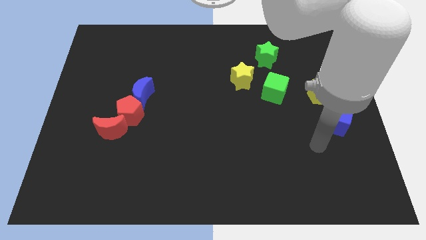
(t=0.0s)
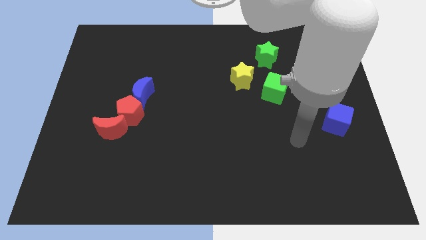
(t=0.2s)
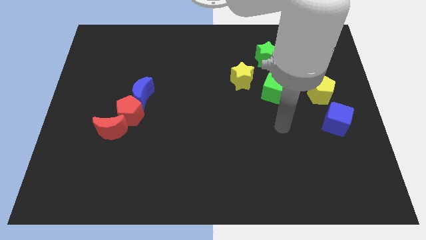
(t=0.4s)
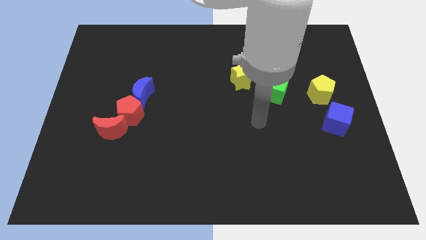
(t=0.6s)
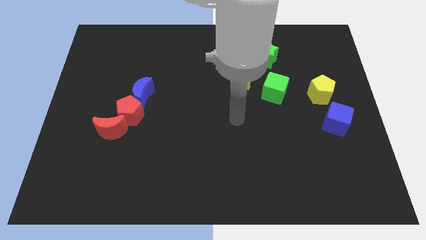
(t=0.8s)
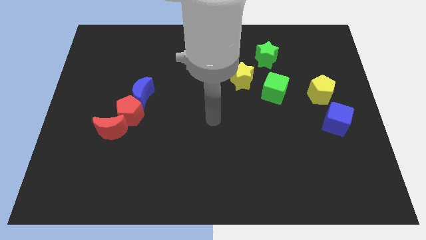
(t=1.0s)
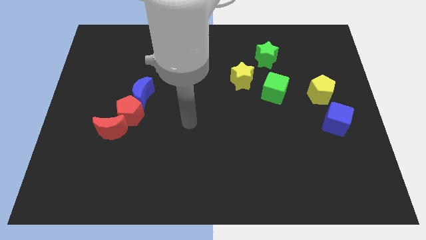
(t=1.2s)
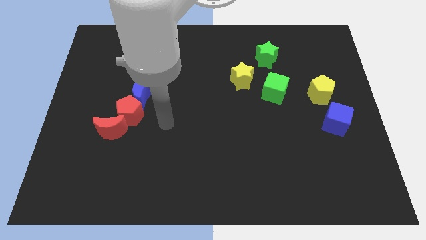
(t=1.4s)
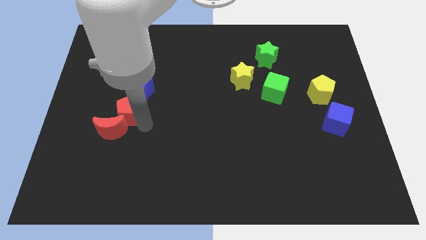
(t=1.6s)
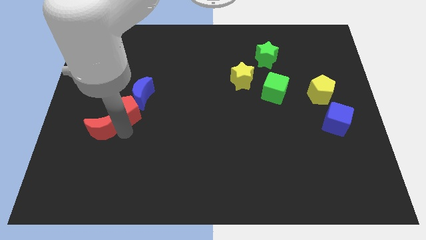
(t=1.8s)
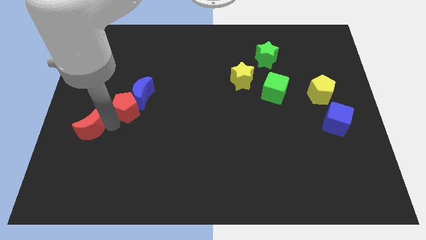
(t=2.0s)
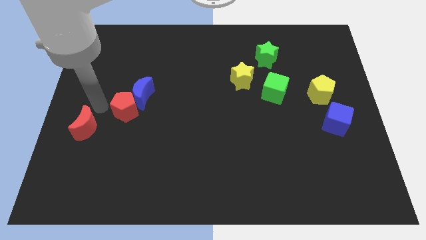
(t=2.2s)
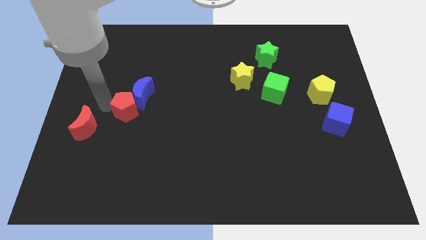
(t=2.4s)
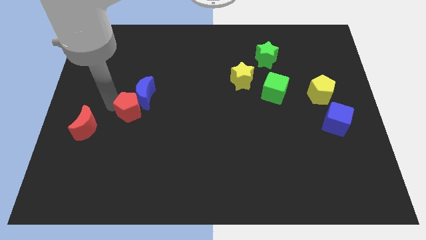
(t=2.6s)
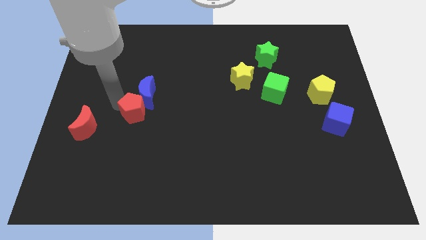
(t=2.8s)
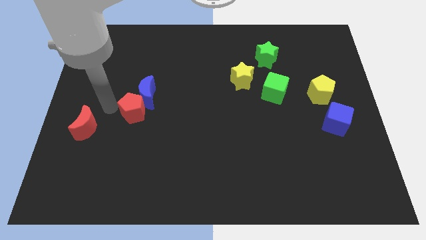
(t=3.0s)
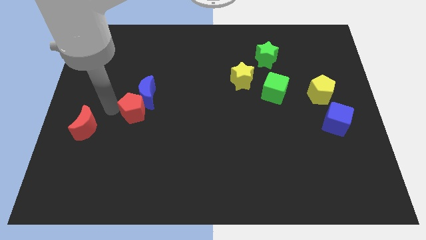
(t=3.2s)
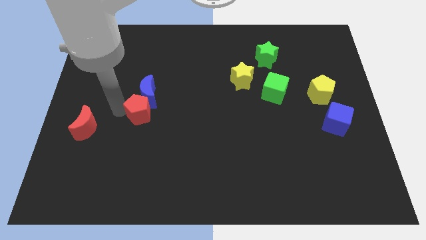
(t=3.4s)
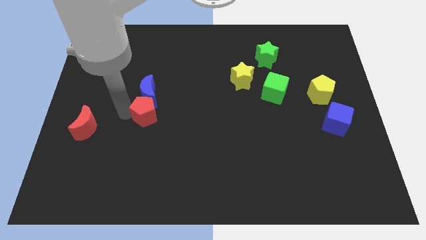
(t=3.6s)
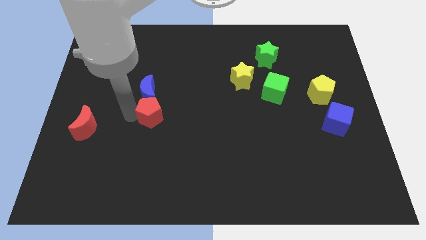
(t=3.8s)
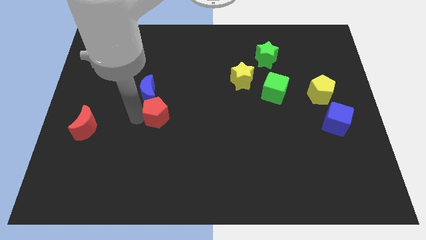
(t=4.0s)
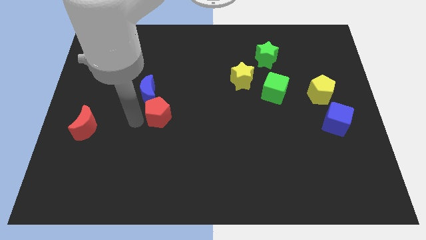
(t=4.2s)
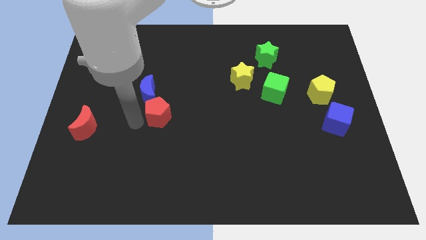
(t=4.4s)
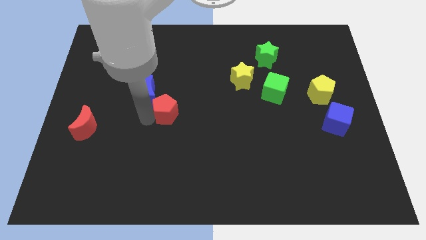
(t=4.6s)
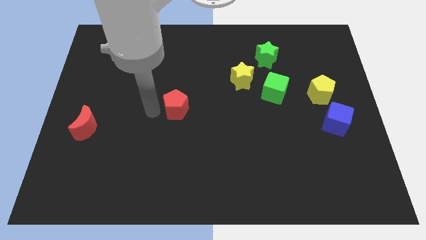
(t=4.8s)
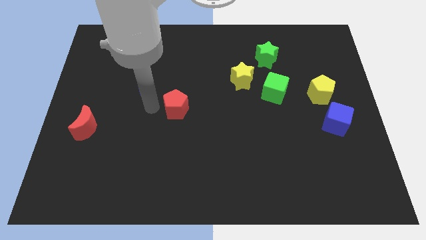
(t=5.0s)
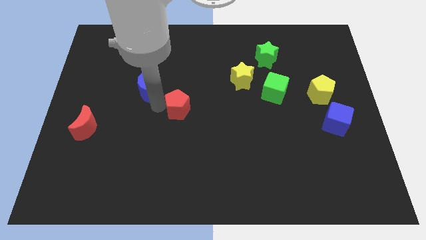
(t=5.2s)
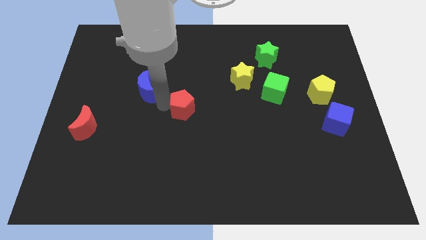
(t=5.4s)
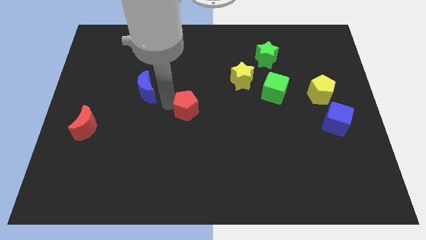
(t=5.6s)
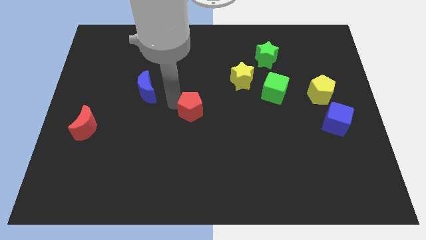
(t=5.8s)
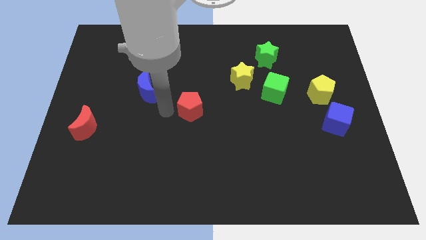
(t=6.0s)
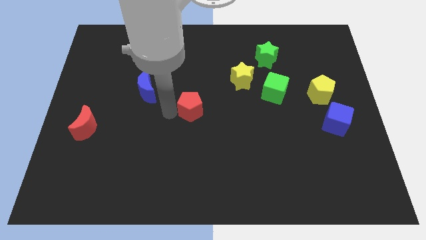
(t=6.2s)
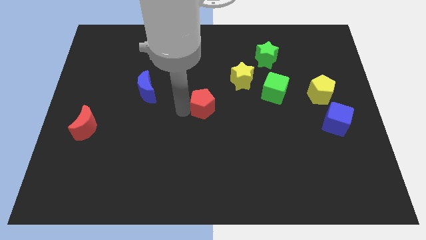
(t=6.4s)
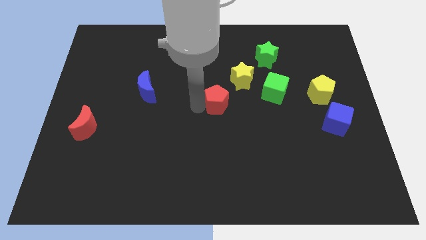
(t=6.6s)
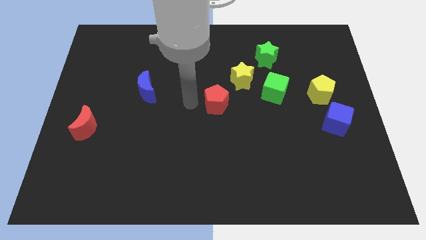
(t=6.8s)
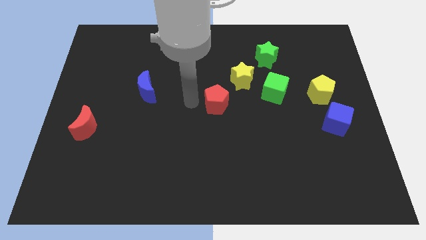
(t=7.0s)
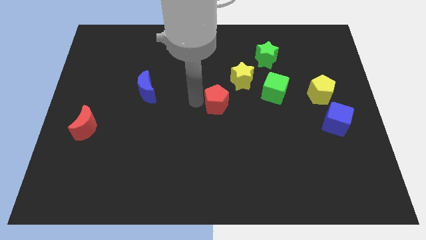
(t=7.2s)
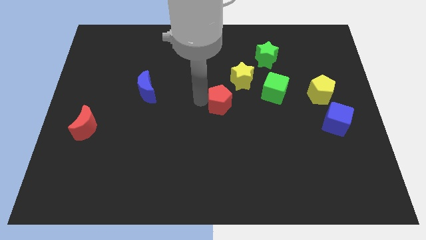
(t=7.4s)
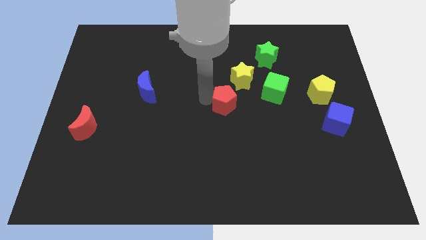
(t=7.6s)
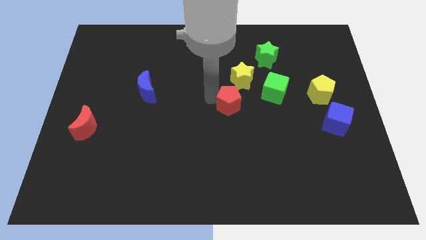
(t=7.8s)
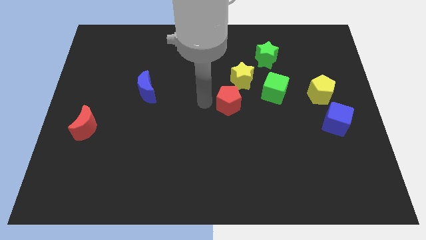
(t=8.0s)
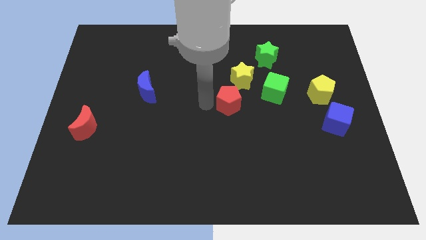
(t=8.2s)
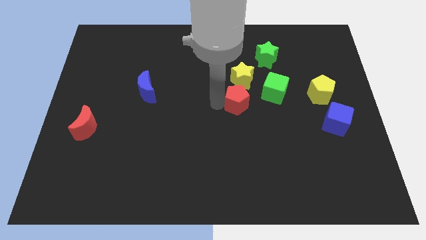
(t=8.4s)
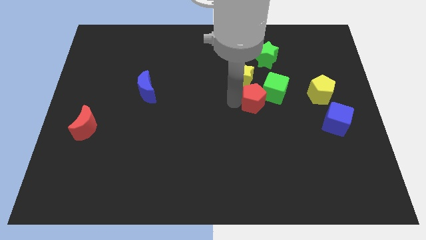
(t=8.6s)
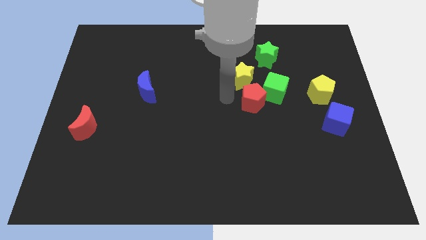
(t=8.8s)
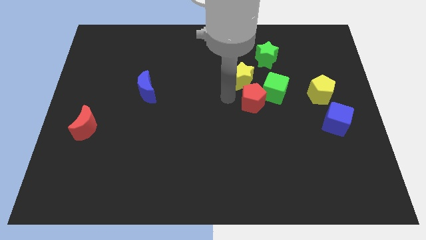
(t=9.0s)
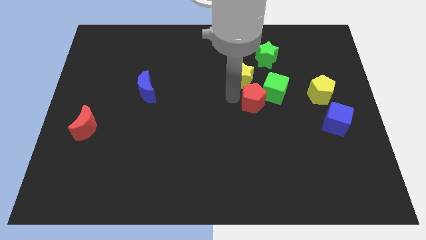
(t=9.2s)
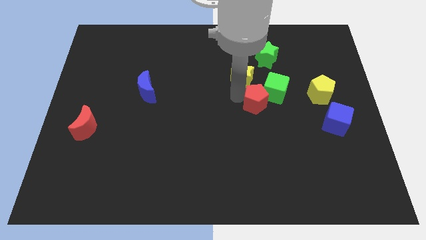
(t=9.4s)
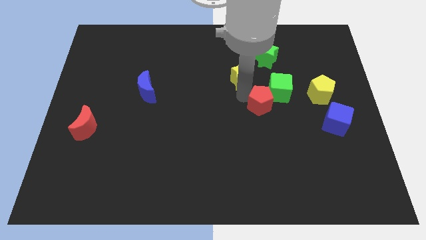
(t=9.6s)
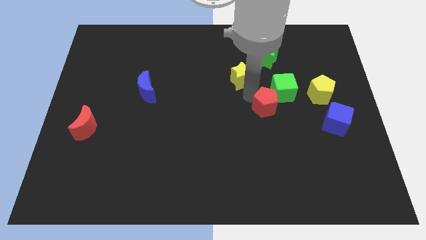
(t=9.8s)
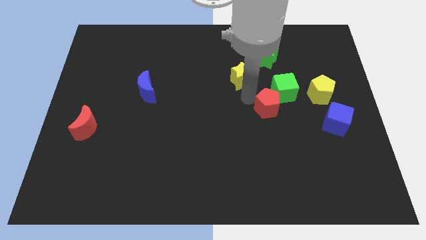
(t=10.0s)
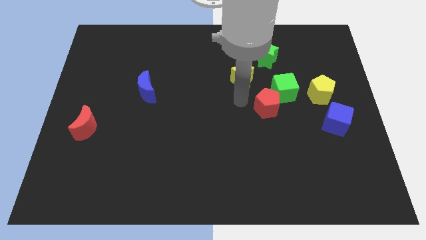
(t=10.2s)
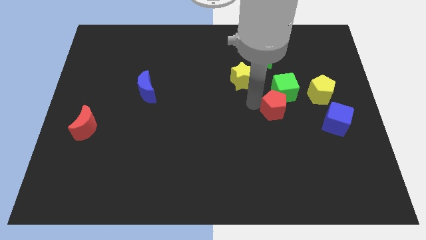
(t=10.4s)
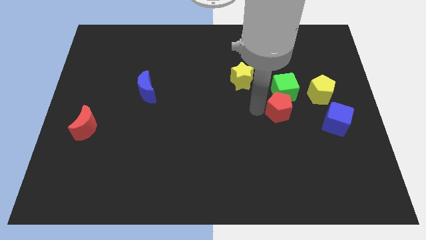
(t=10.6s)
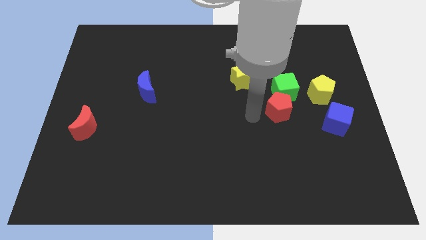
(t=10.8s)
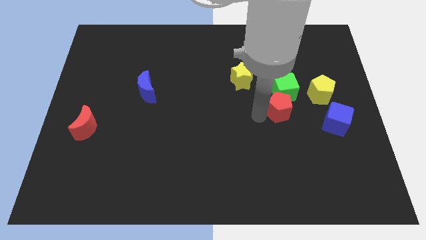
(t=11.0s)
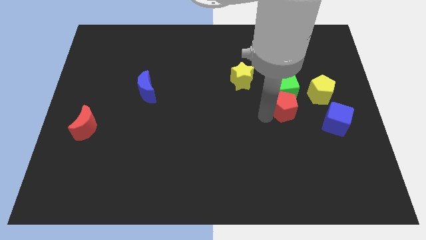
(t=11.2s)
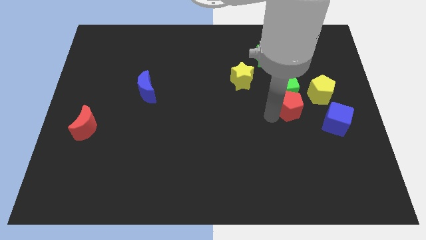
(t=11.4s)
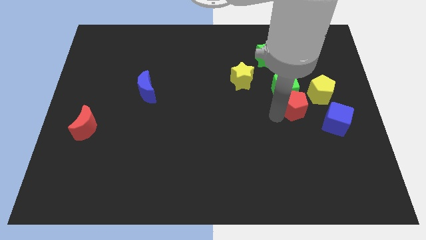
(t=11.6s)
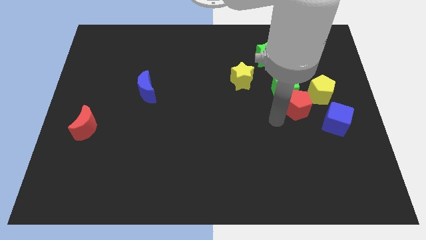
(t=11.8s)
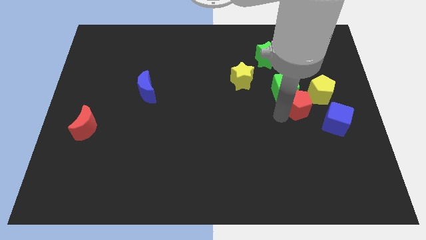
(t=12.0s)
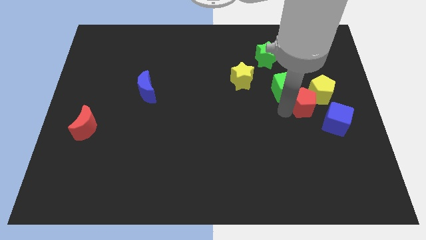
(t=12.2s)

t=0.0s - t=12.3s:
move the red pentagon next to the yellow pentagon
